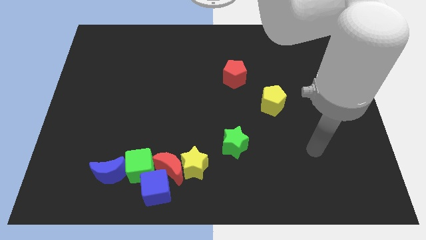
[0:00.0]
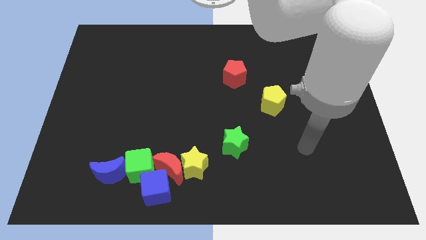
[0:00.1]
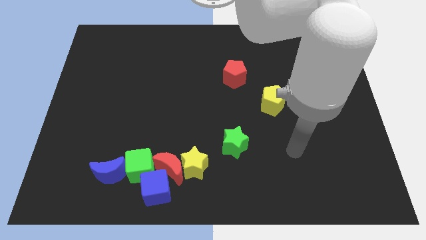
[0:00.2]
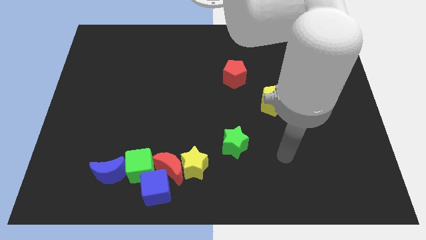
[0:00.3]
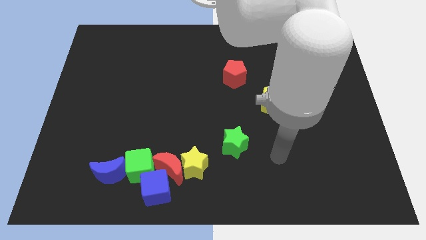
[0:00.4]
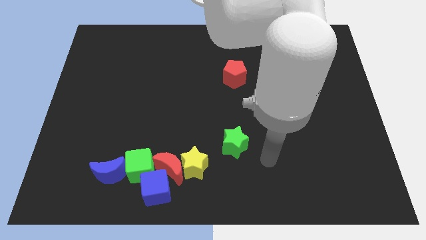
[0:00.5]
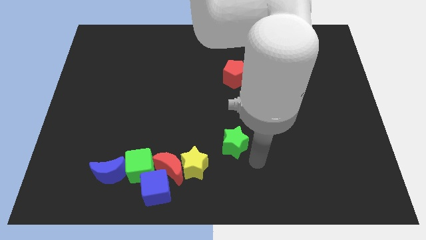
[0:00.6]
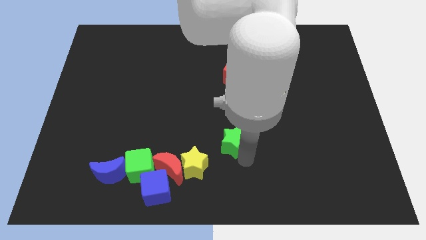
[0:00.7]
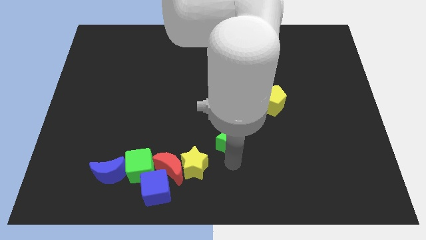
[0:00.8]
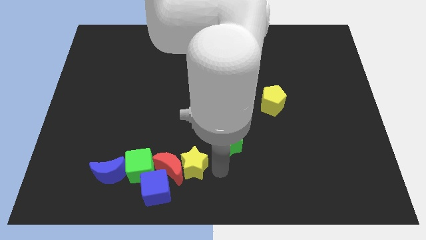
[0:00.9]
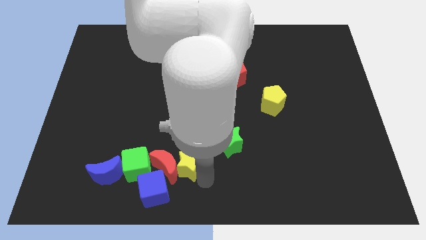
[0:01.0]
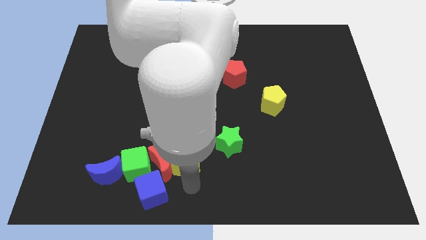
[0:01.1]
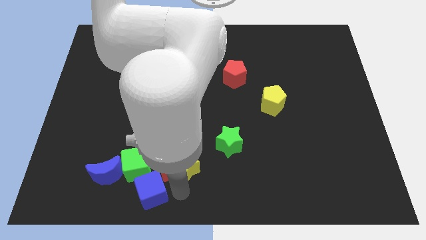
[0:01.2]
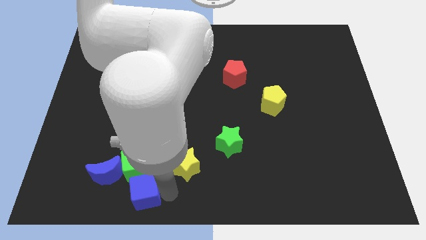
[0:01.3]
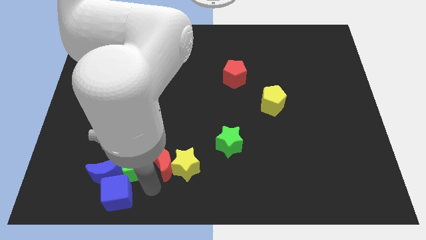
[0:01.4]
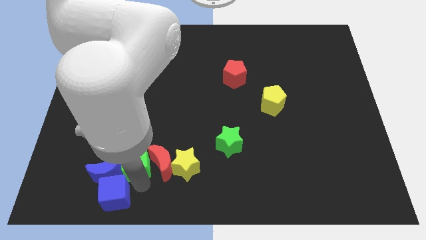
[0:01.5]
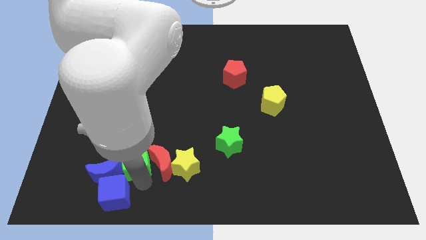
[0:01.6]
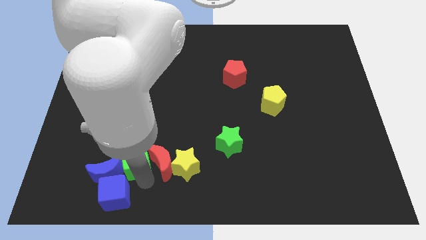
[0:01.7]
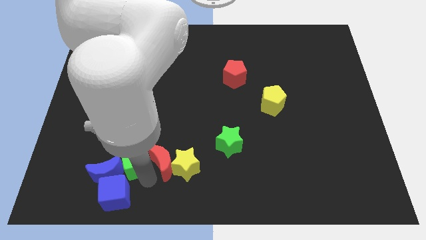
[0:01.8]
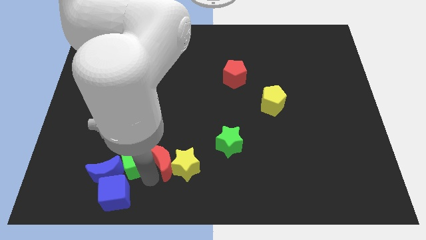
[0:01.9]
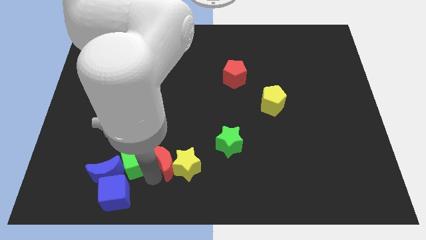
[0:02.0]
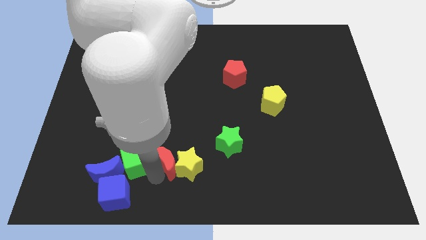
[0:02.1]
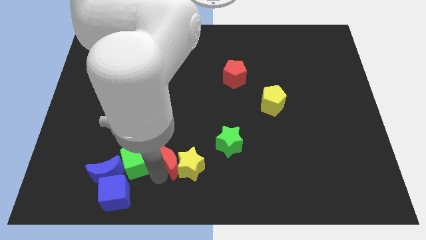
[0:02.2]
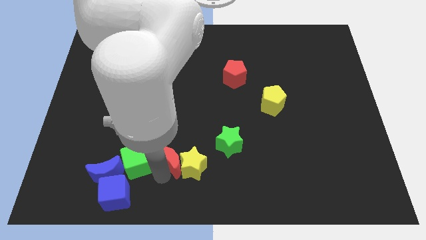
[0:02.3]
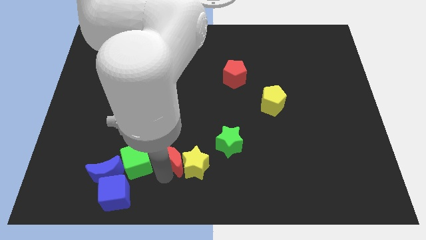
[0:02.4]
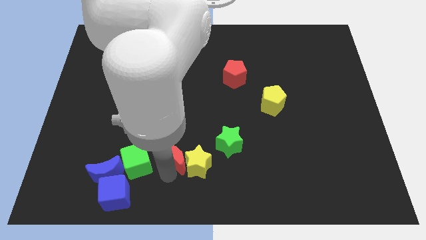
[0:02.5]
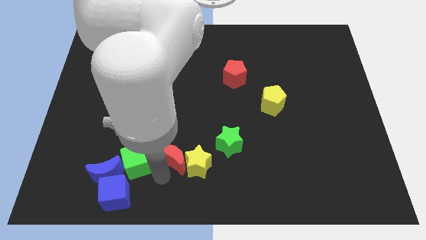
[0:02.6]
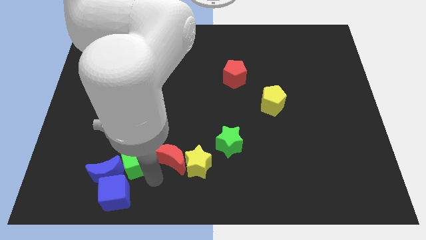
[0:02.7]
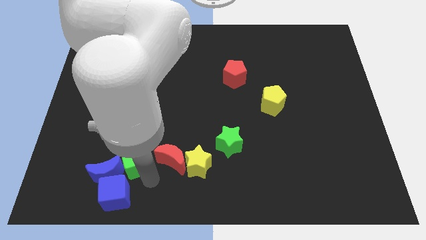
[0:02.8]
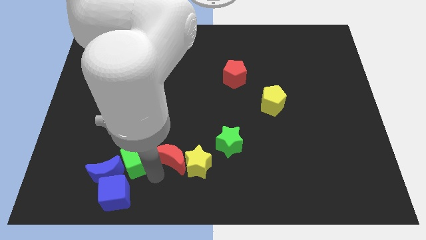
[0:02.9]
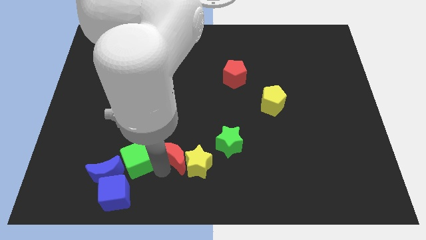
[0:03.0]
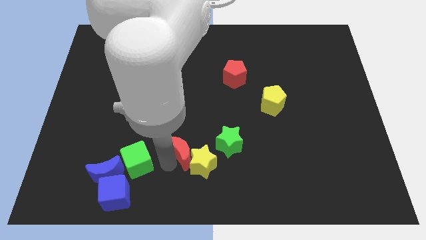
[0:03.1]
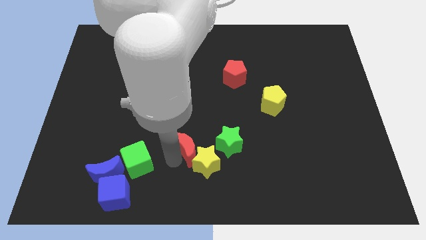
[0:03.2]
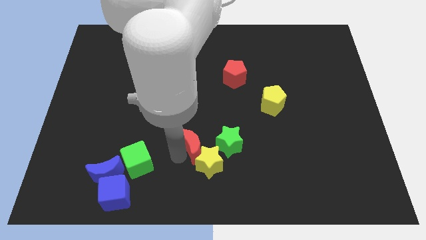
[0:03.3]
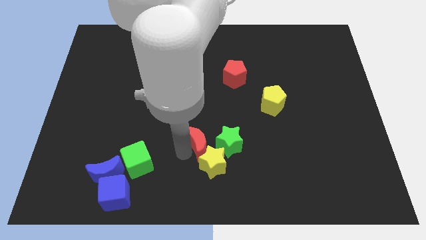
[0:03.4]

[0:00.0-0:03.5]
move the red moon away from the yellow star, blue cube, and green cube

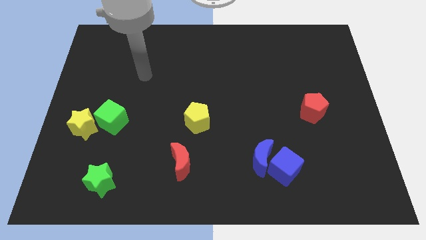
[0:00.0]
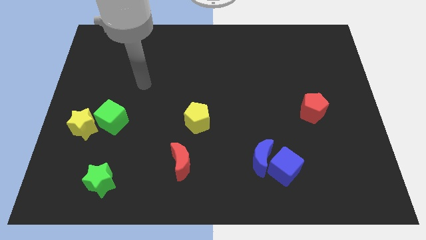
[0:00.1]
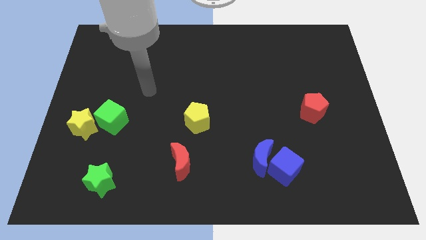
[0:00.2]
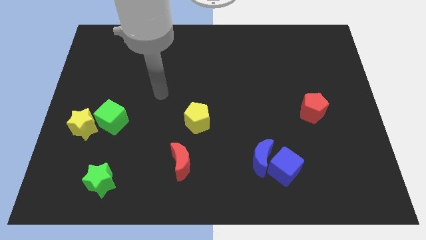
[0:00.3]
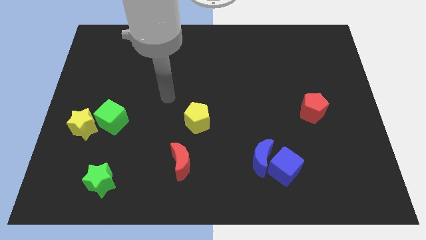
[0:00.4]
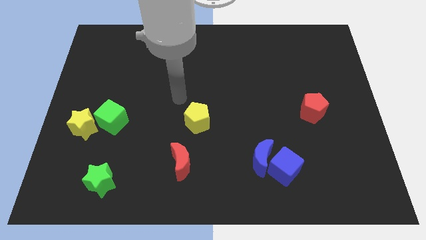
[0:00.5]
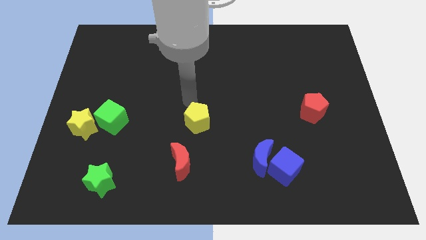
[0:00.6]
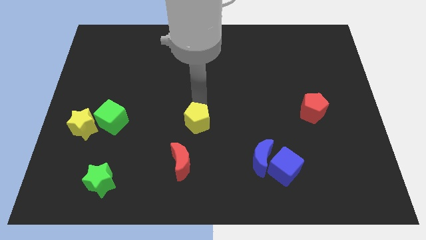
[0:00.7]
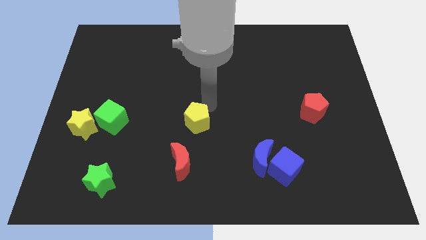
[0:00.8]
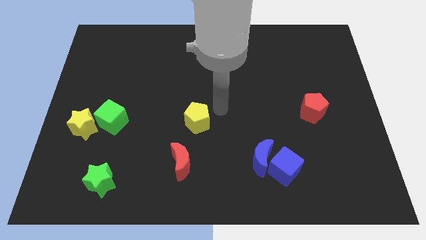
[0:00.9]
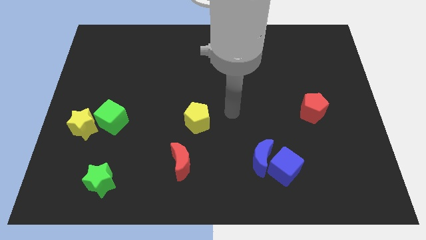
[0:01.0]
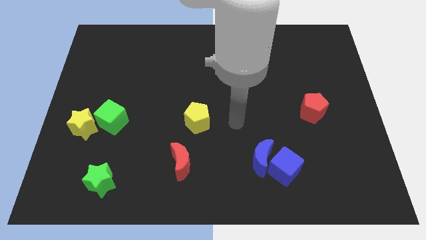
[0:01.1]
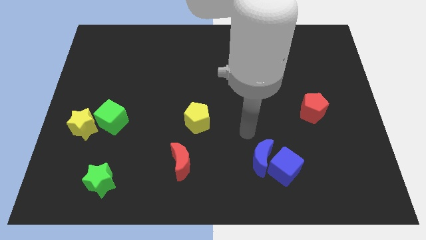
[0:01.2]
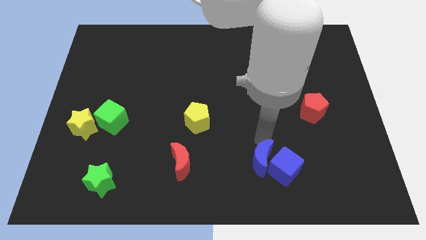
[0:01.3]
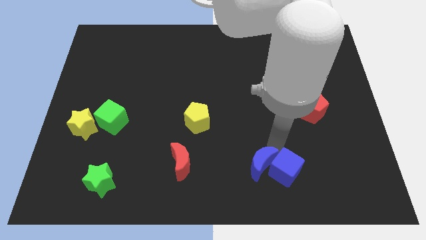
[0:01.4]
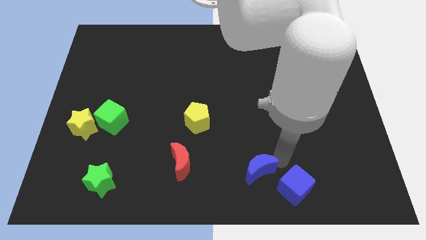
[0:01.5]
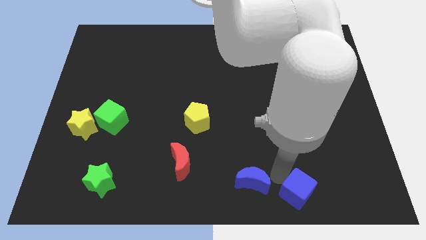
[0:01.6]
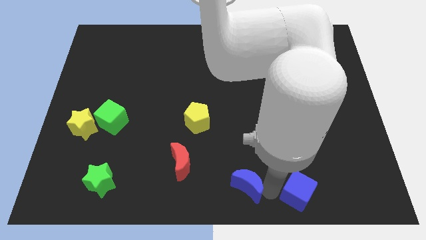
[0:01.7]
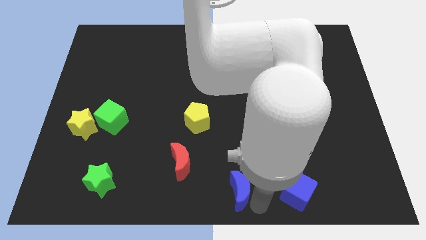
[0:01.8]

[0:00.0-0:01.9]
move the blue moon away from the blue cube

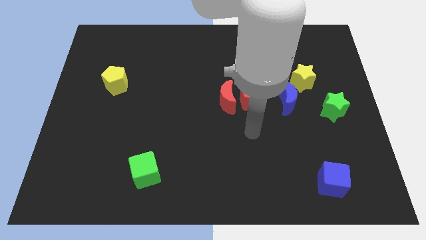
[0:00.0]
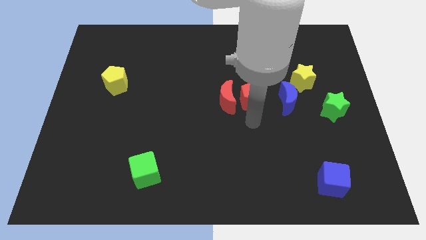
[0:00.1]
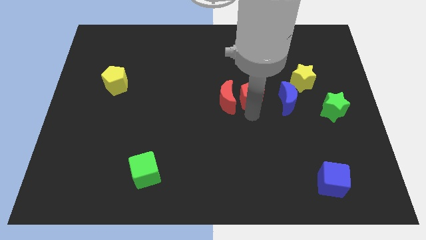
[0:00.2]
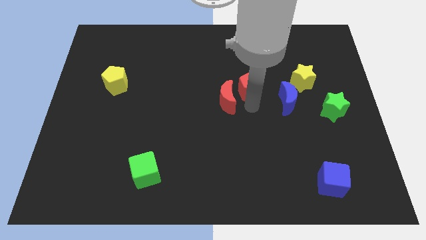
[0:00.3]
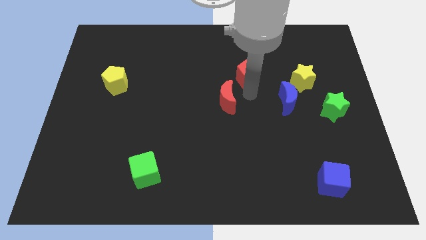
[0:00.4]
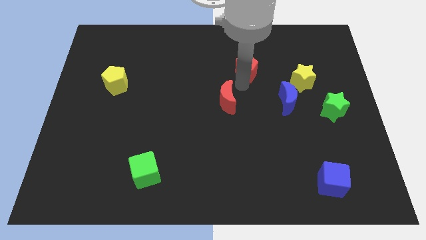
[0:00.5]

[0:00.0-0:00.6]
move the red moon away from the red pentagon

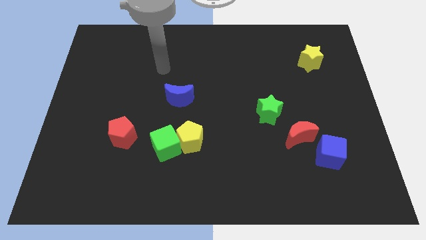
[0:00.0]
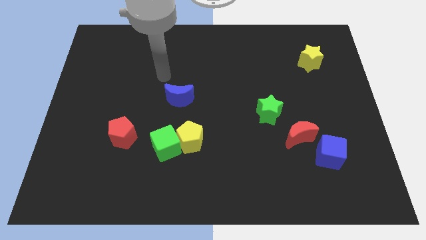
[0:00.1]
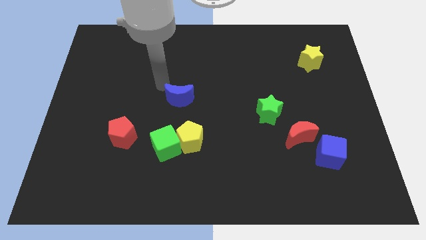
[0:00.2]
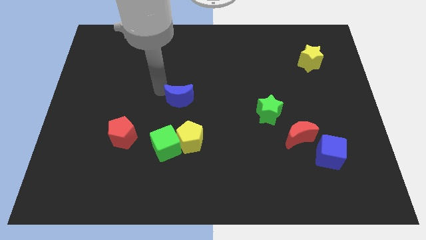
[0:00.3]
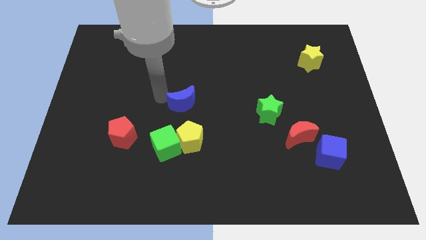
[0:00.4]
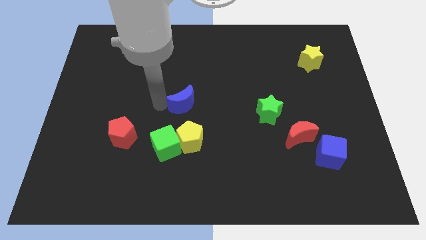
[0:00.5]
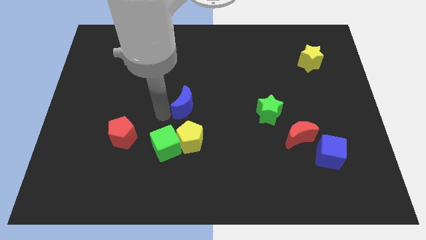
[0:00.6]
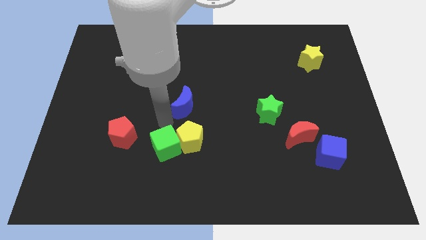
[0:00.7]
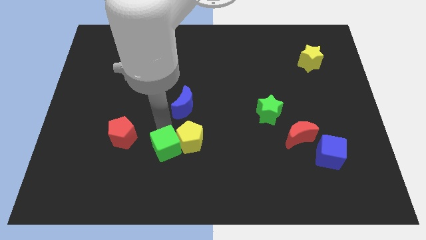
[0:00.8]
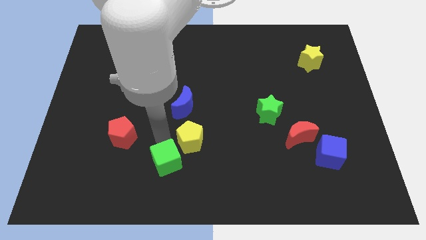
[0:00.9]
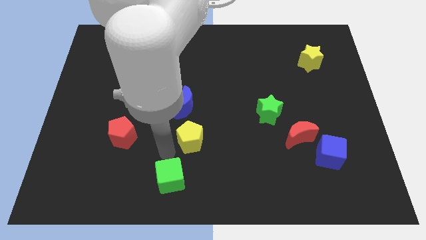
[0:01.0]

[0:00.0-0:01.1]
pull the yellow pentagon apart from the green cube

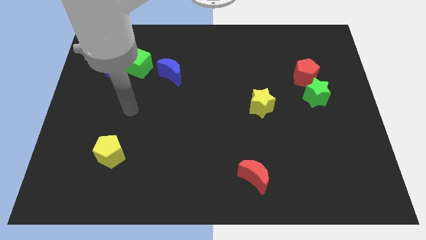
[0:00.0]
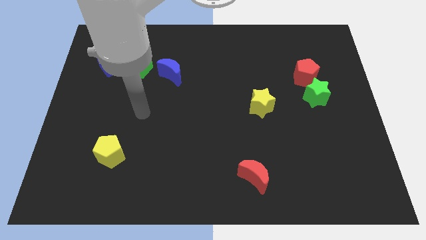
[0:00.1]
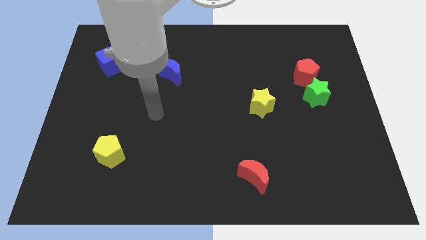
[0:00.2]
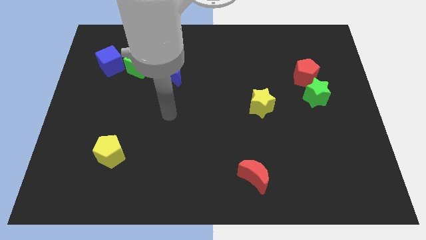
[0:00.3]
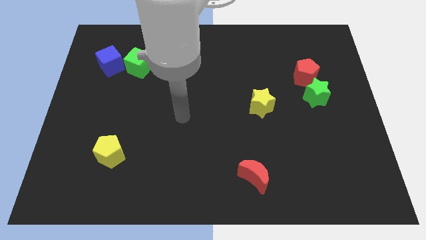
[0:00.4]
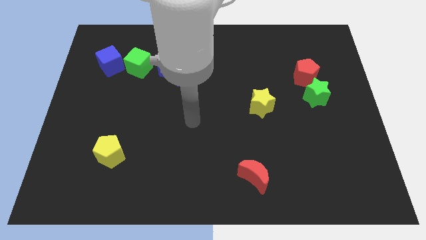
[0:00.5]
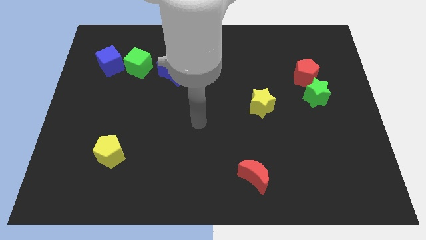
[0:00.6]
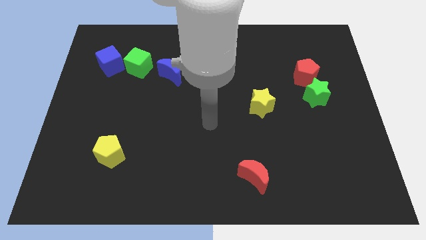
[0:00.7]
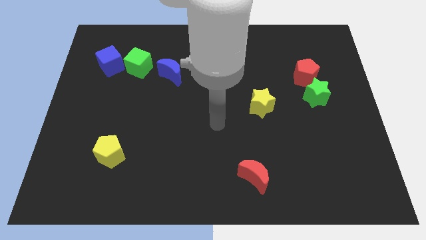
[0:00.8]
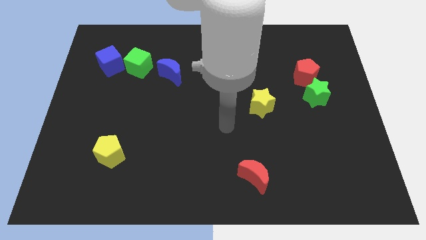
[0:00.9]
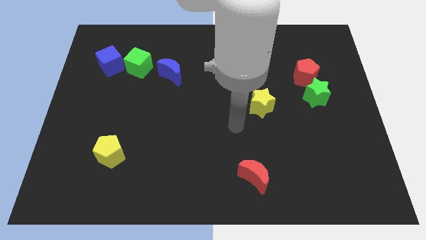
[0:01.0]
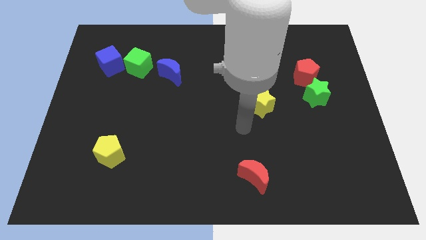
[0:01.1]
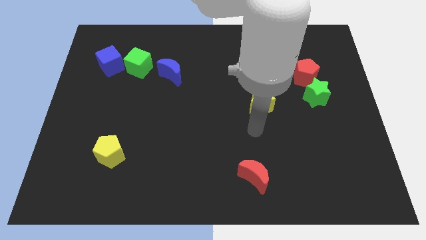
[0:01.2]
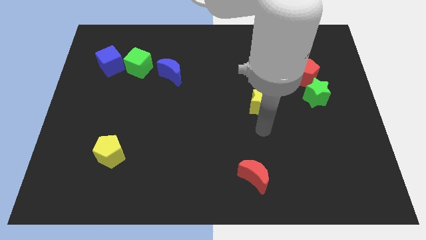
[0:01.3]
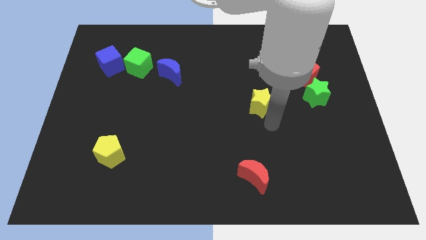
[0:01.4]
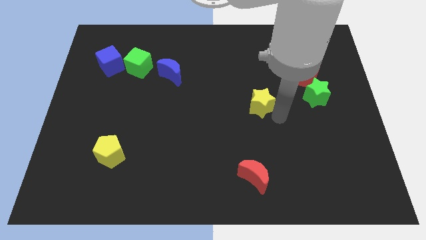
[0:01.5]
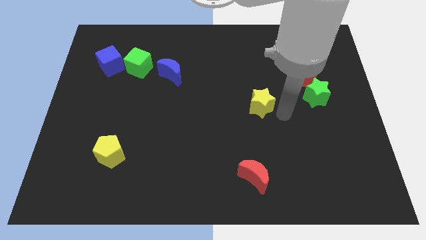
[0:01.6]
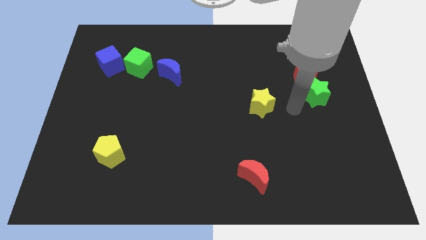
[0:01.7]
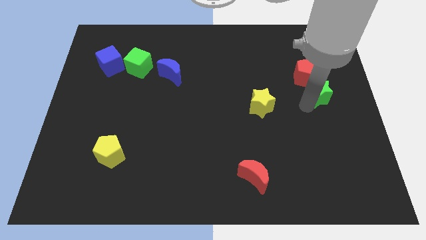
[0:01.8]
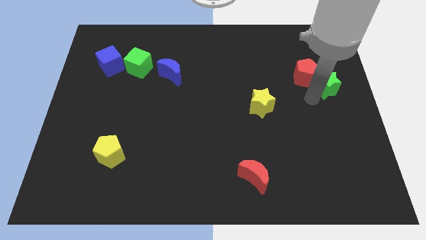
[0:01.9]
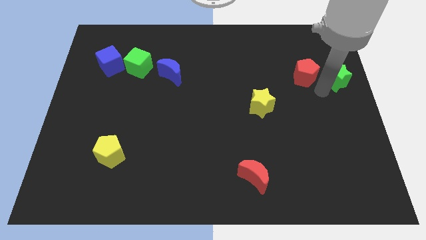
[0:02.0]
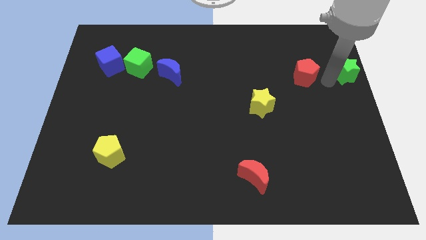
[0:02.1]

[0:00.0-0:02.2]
separate the red pentagon from the green star
